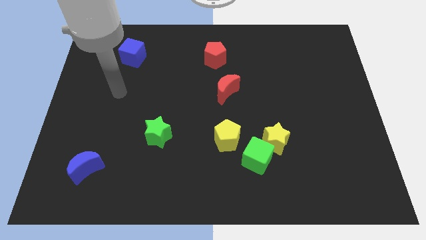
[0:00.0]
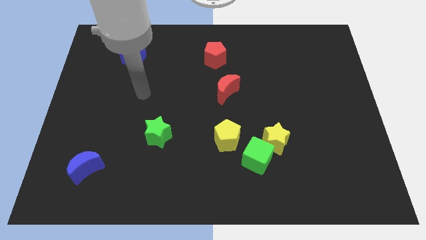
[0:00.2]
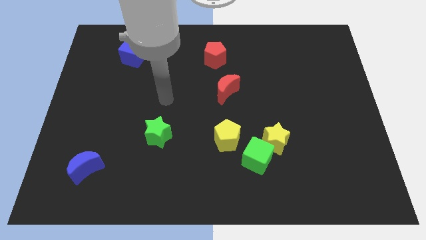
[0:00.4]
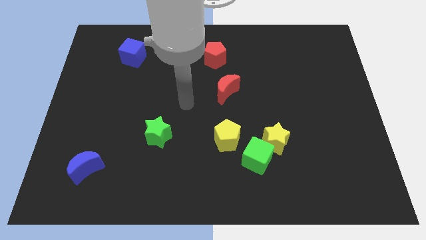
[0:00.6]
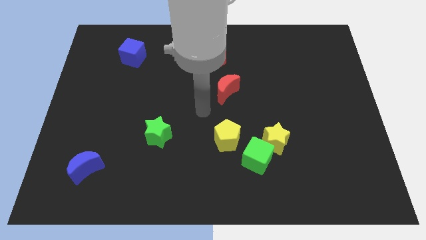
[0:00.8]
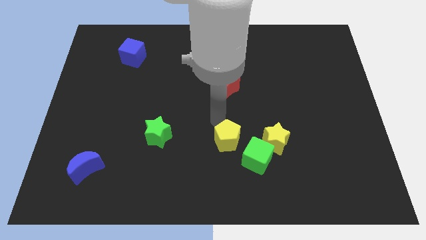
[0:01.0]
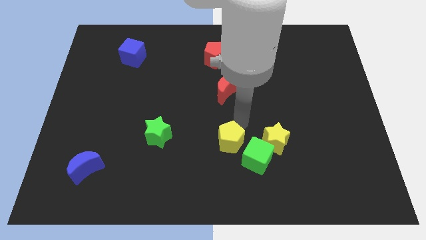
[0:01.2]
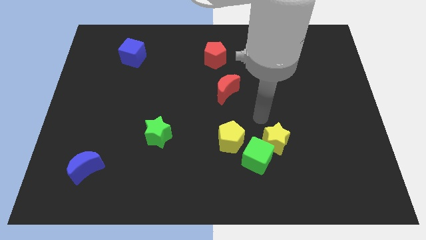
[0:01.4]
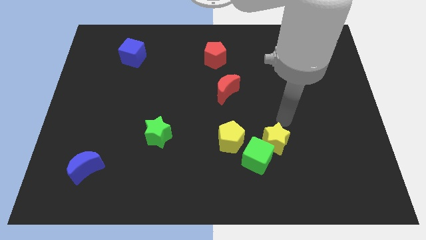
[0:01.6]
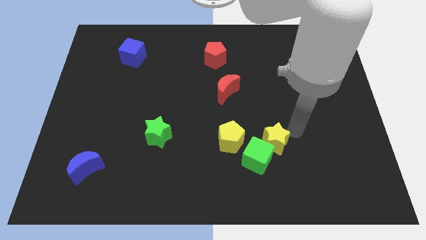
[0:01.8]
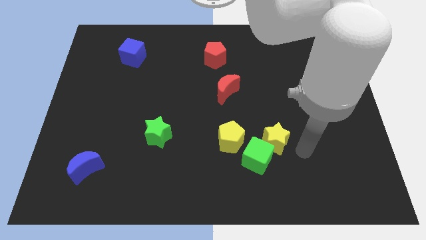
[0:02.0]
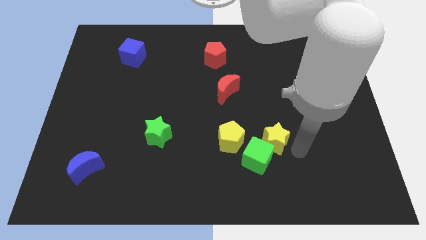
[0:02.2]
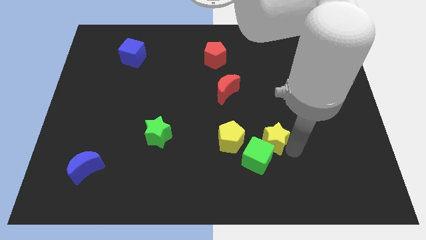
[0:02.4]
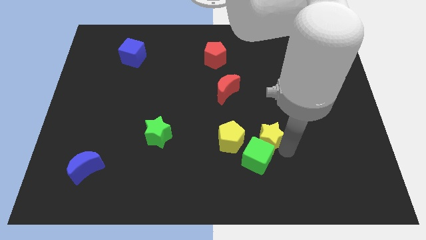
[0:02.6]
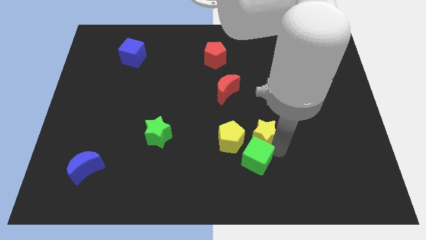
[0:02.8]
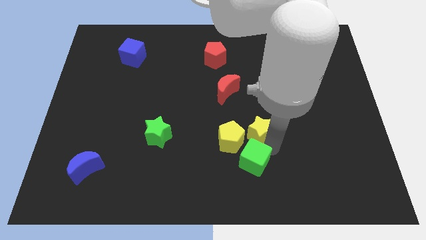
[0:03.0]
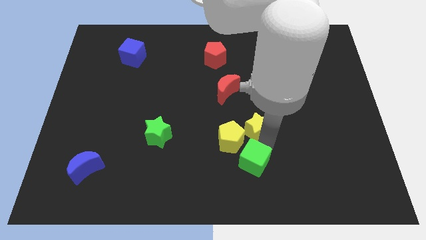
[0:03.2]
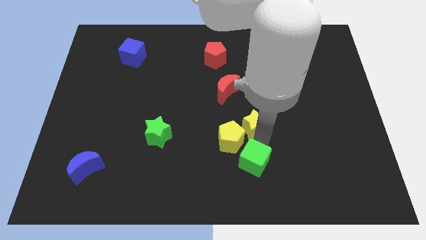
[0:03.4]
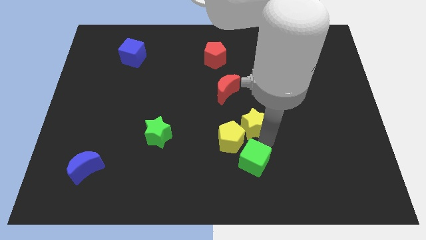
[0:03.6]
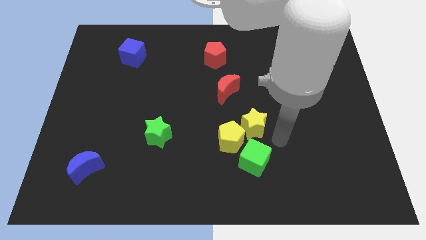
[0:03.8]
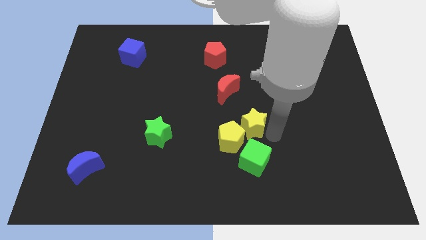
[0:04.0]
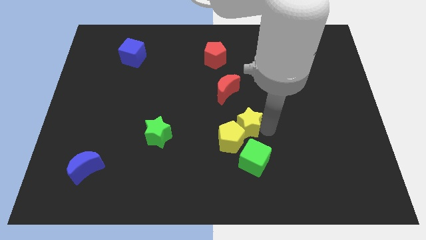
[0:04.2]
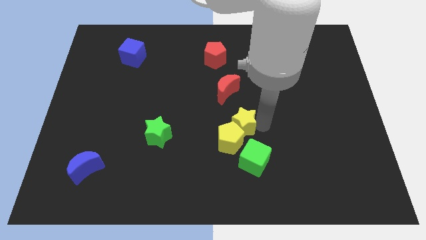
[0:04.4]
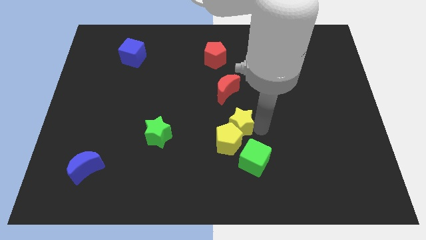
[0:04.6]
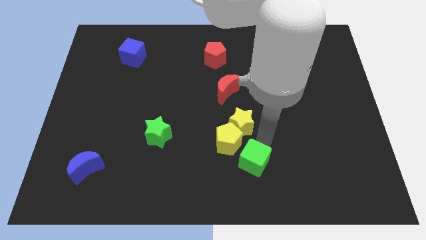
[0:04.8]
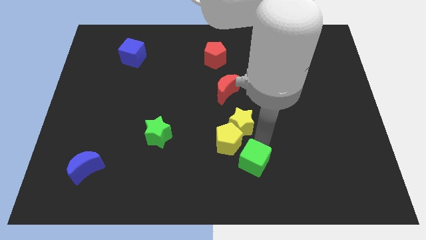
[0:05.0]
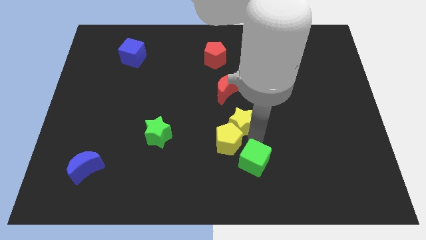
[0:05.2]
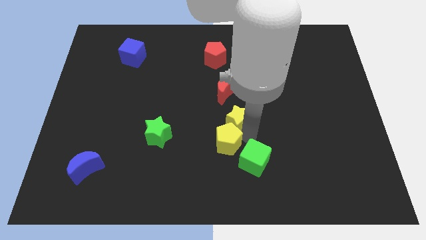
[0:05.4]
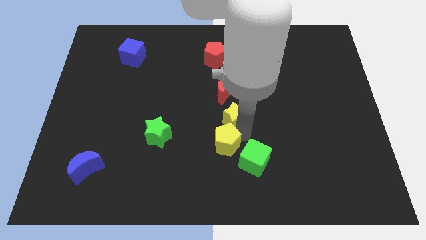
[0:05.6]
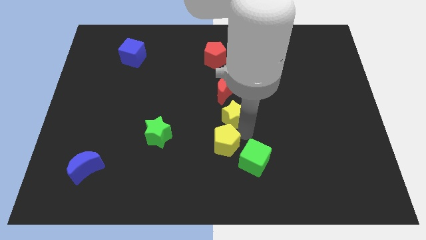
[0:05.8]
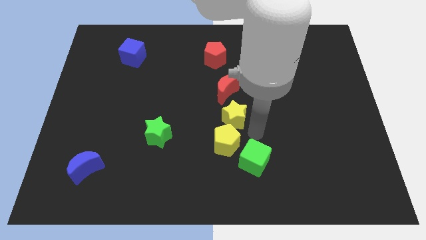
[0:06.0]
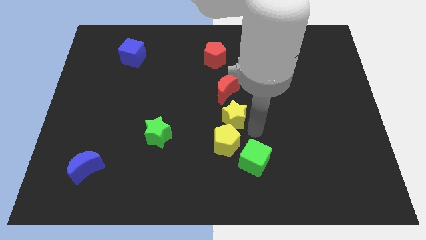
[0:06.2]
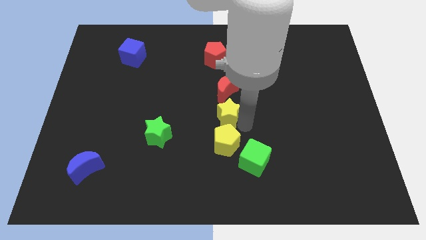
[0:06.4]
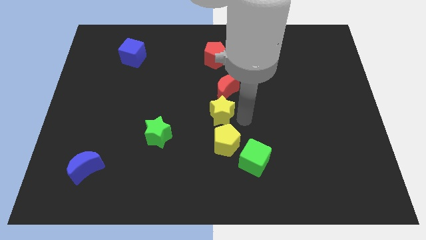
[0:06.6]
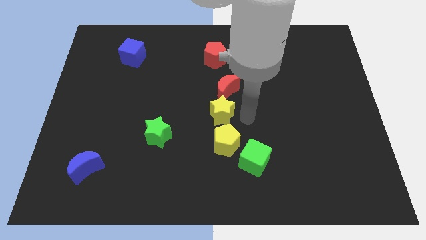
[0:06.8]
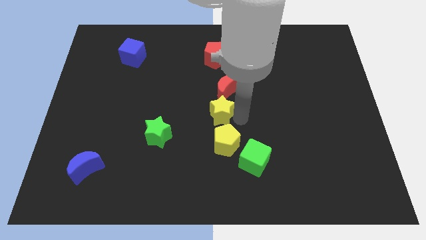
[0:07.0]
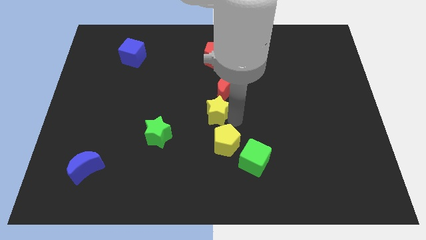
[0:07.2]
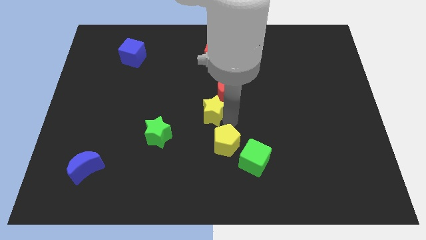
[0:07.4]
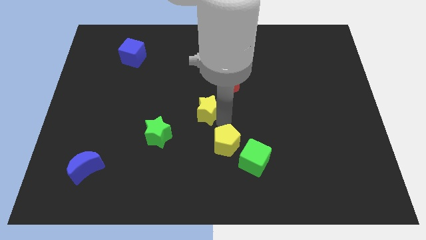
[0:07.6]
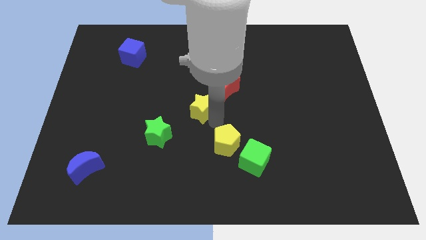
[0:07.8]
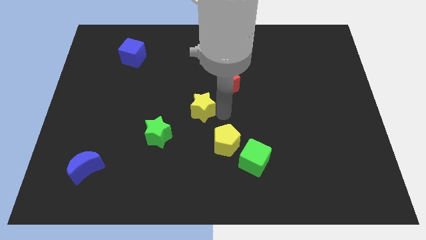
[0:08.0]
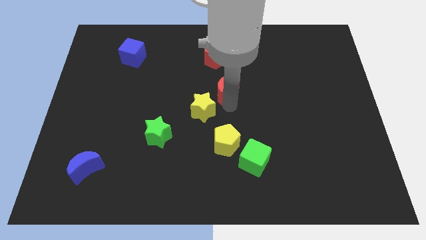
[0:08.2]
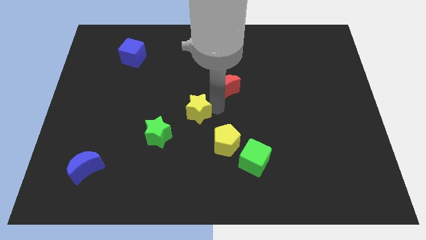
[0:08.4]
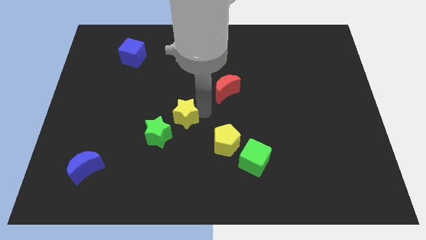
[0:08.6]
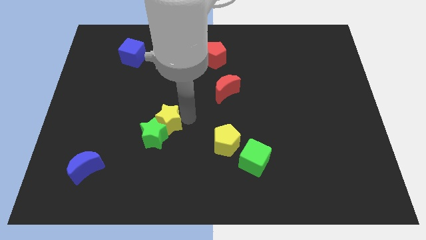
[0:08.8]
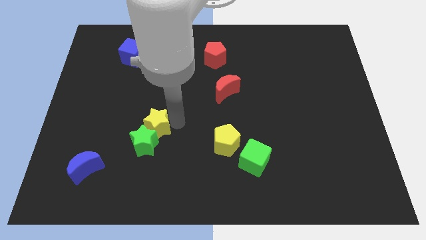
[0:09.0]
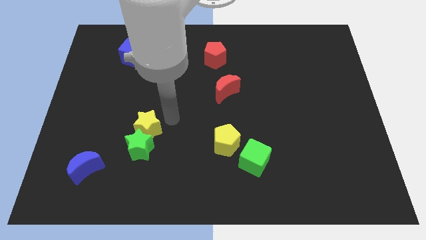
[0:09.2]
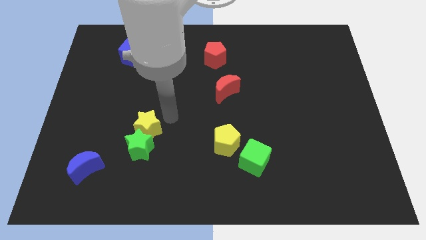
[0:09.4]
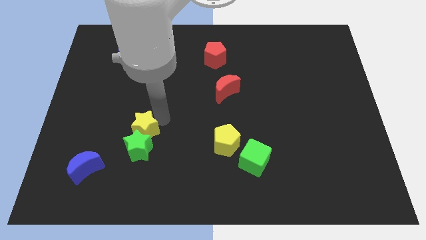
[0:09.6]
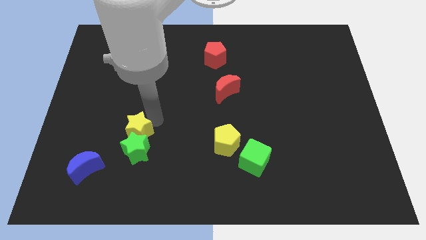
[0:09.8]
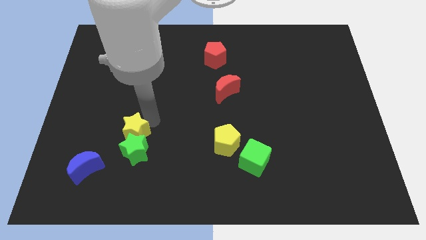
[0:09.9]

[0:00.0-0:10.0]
slide the yellow star to the top right side of the blue moon

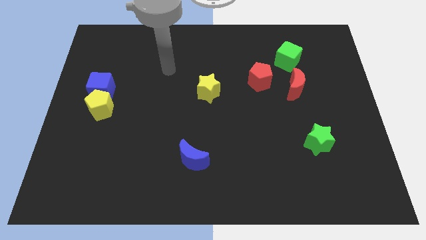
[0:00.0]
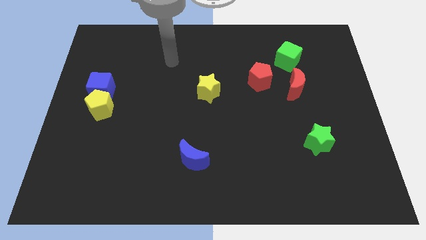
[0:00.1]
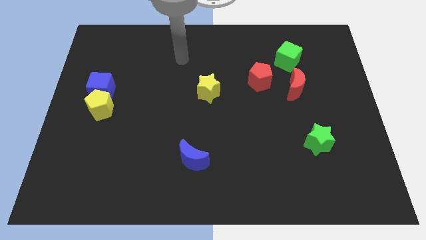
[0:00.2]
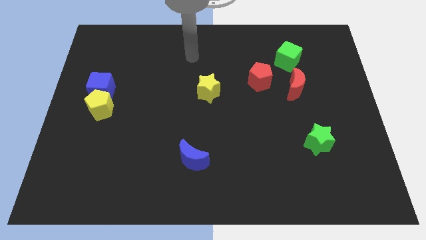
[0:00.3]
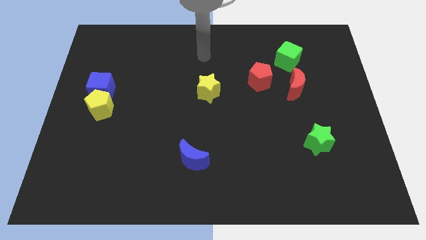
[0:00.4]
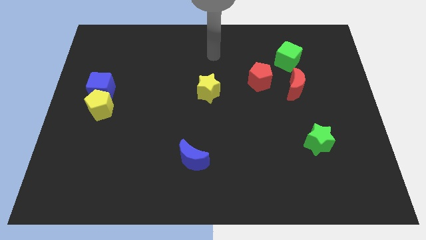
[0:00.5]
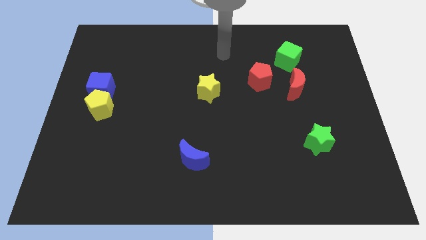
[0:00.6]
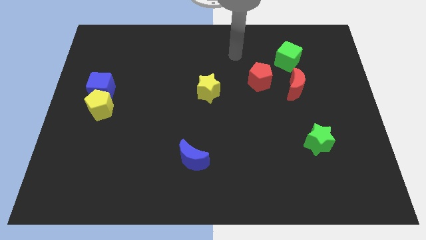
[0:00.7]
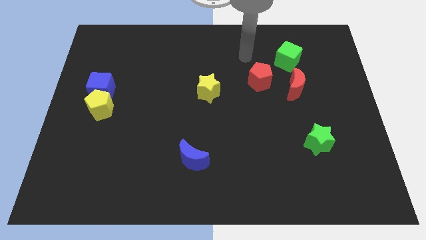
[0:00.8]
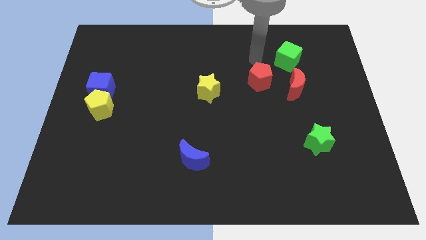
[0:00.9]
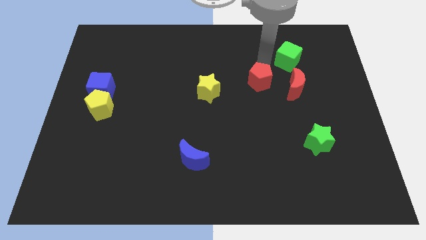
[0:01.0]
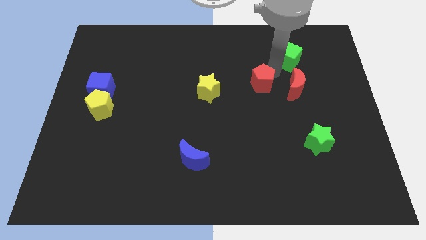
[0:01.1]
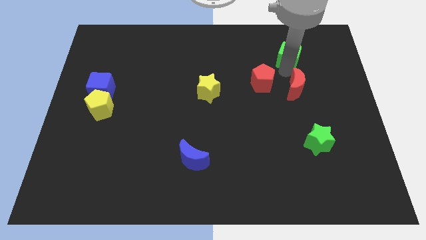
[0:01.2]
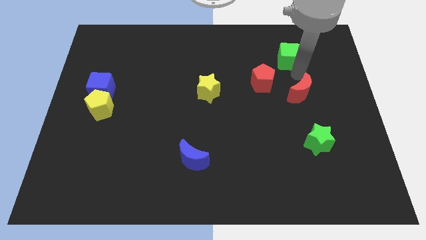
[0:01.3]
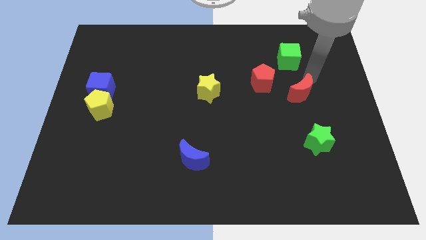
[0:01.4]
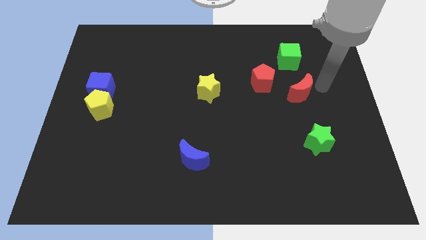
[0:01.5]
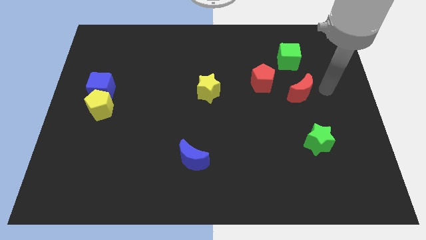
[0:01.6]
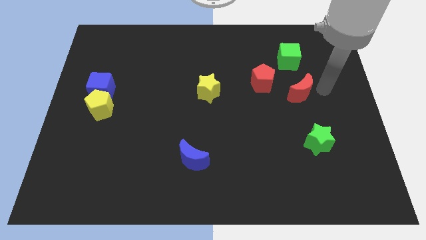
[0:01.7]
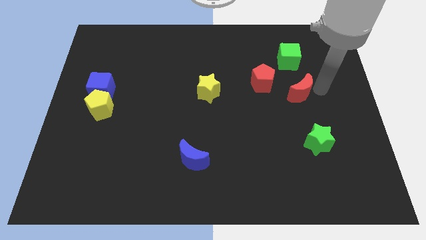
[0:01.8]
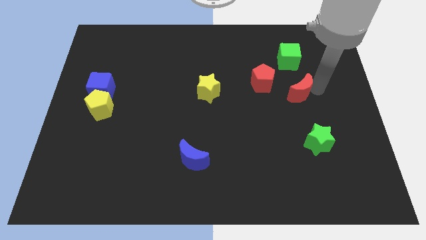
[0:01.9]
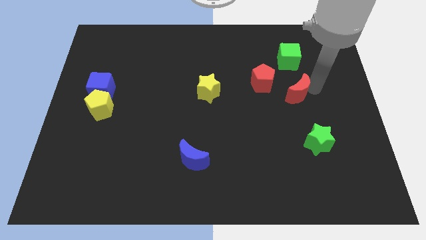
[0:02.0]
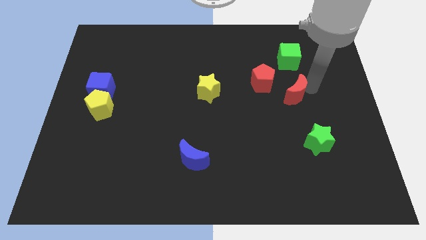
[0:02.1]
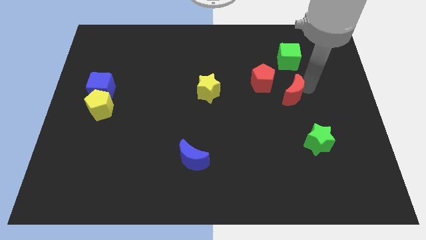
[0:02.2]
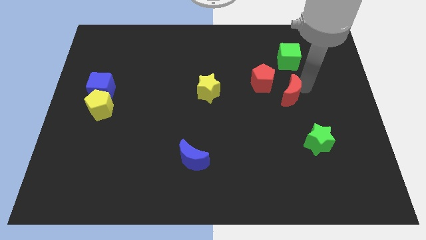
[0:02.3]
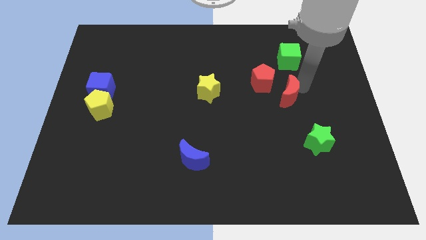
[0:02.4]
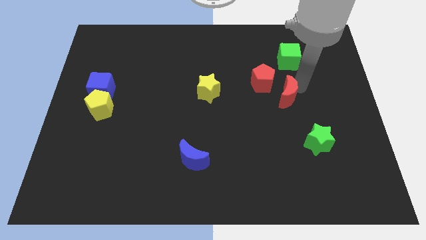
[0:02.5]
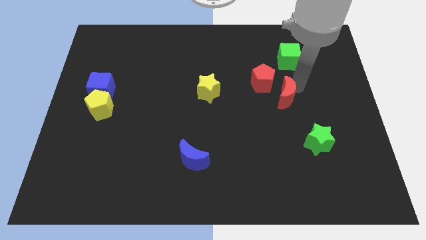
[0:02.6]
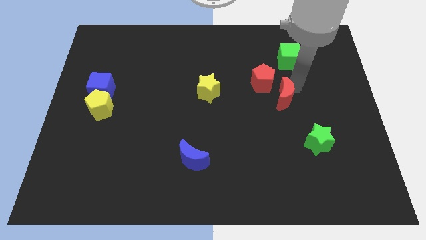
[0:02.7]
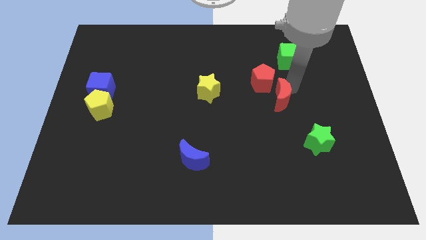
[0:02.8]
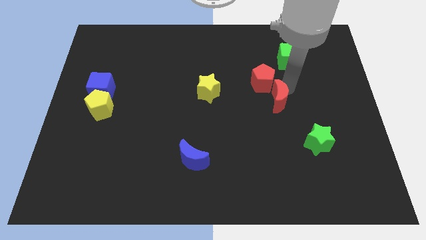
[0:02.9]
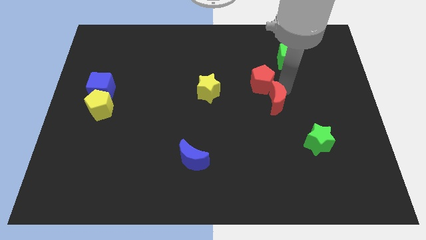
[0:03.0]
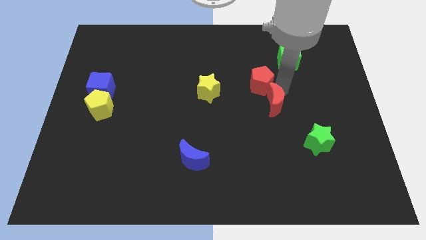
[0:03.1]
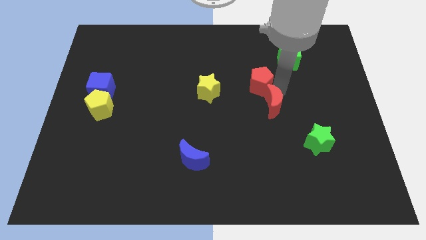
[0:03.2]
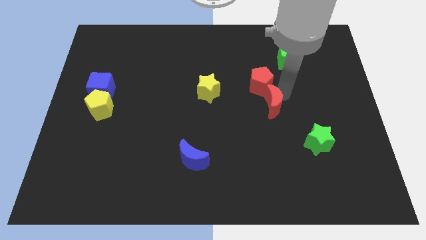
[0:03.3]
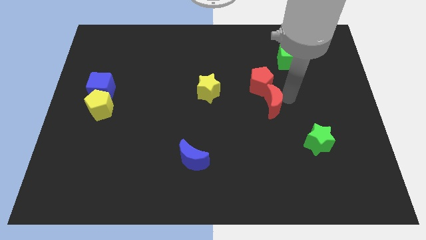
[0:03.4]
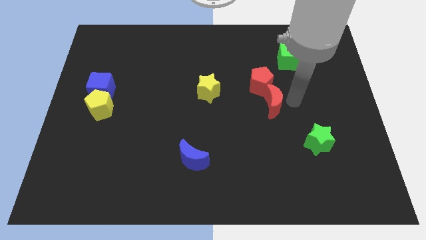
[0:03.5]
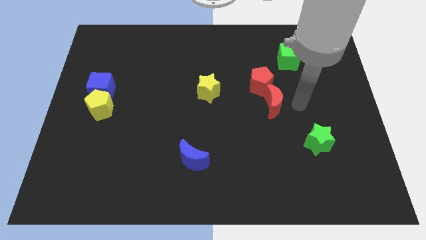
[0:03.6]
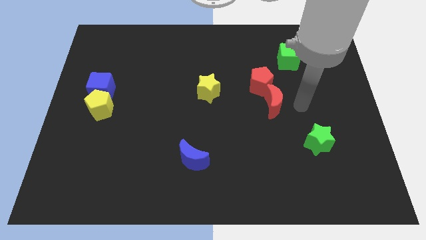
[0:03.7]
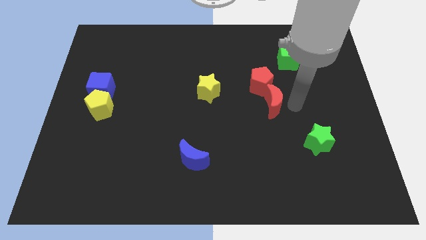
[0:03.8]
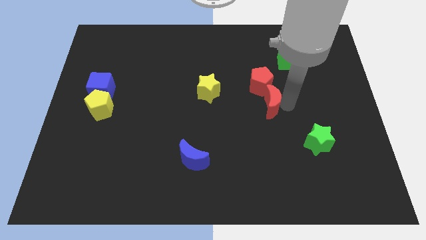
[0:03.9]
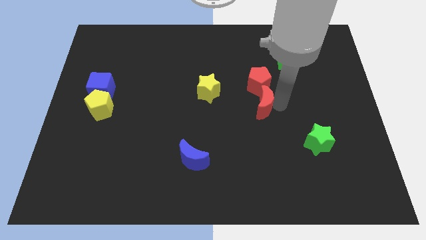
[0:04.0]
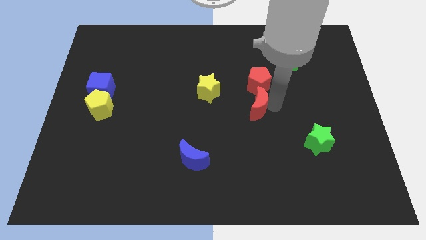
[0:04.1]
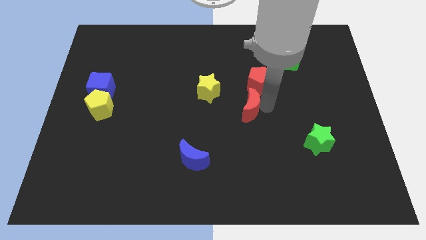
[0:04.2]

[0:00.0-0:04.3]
move the red moon to the bottom right of the yellow star
